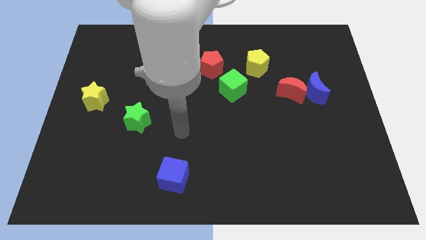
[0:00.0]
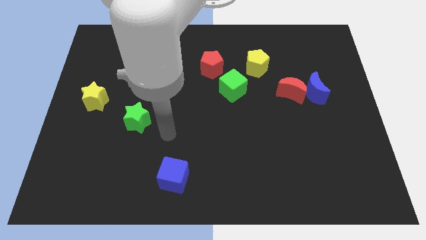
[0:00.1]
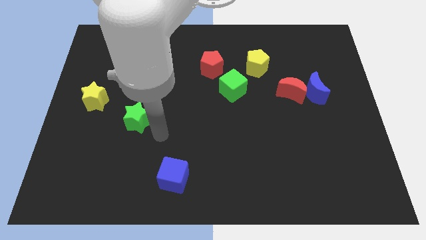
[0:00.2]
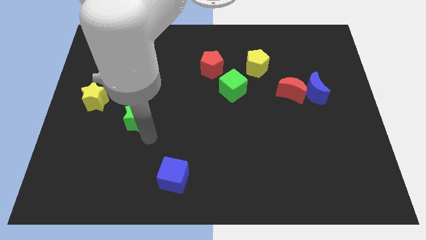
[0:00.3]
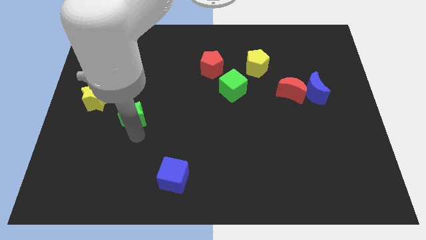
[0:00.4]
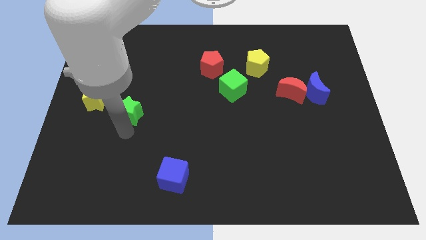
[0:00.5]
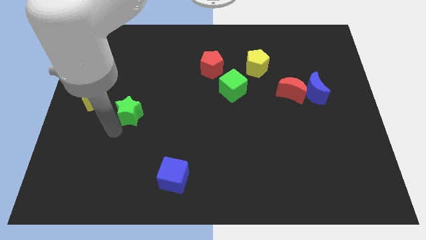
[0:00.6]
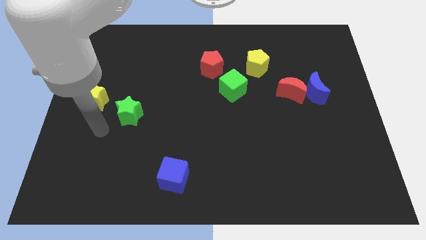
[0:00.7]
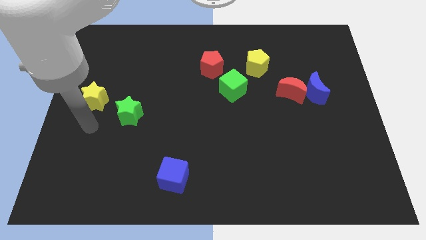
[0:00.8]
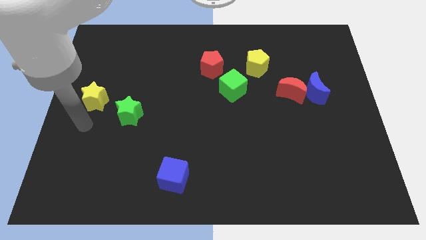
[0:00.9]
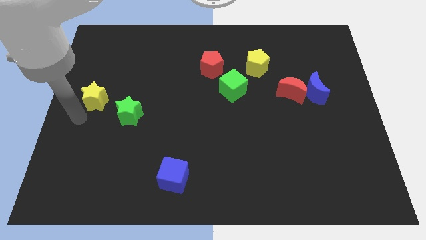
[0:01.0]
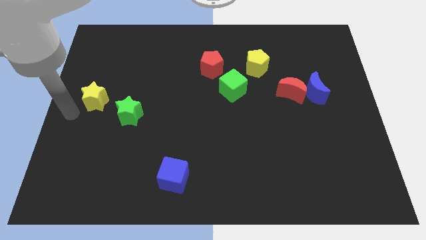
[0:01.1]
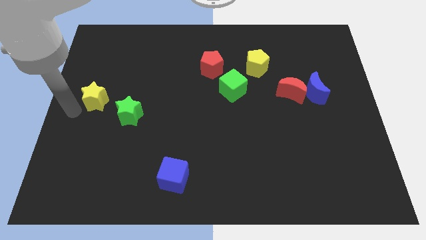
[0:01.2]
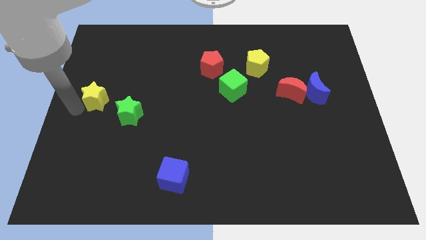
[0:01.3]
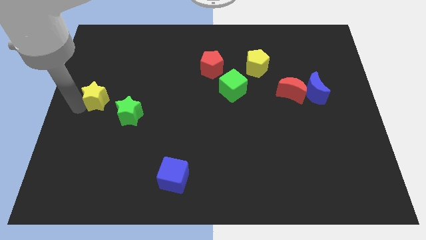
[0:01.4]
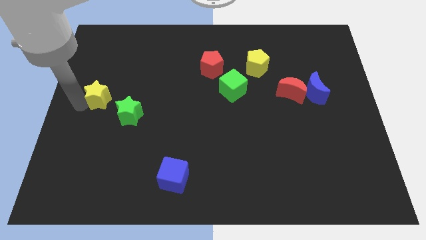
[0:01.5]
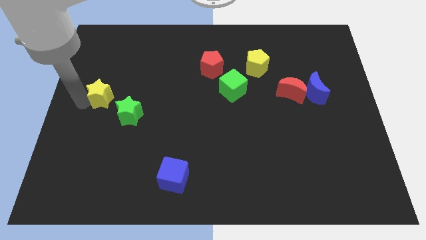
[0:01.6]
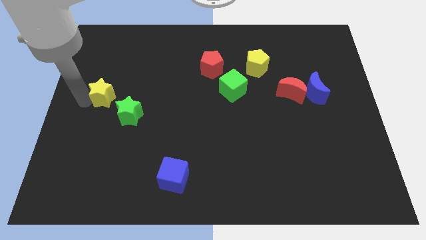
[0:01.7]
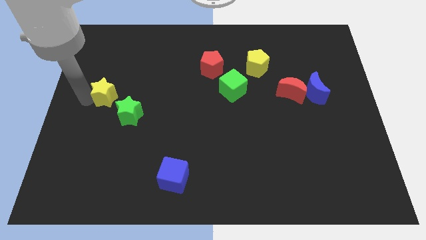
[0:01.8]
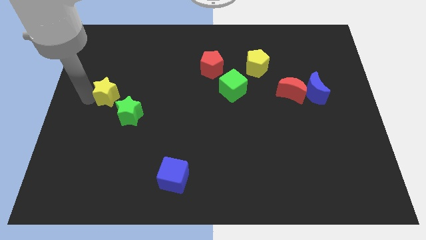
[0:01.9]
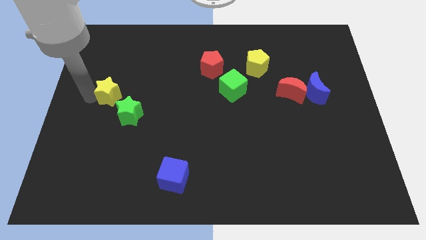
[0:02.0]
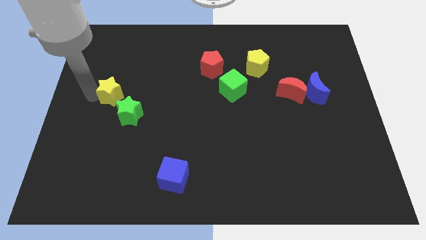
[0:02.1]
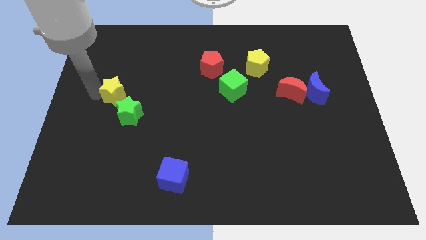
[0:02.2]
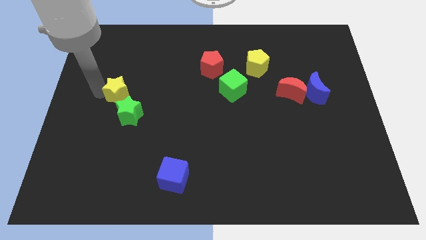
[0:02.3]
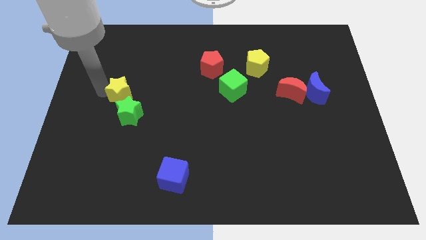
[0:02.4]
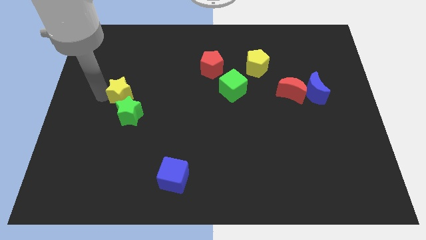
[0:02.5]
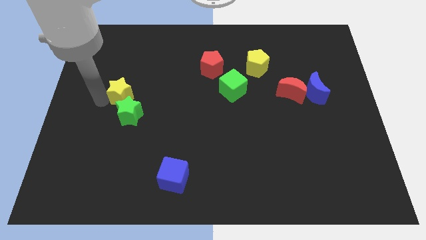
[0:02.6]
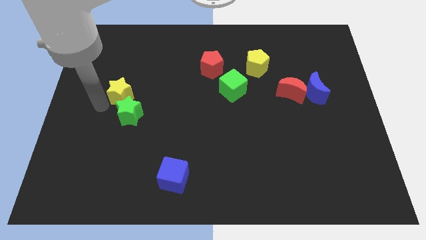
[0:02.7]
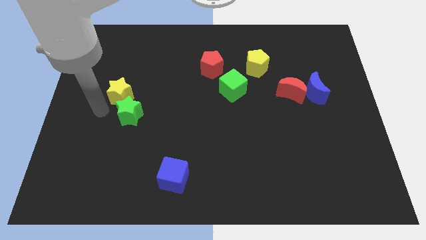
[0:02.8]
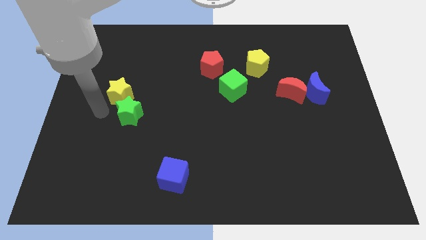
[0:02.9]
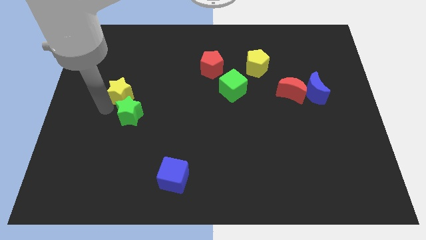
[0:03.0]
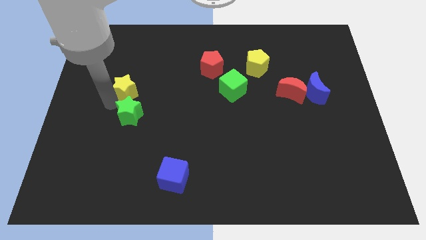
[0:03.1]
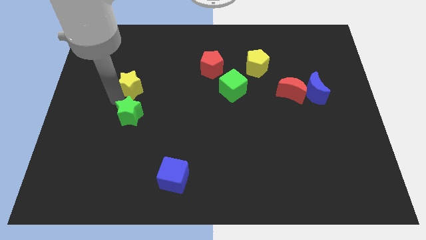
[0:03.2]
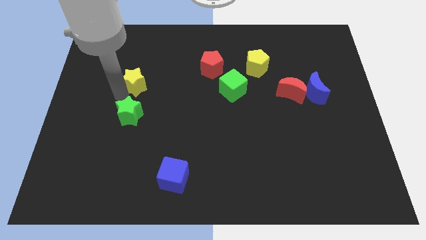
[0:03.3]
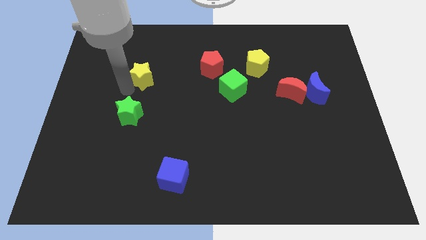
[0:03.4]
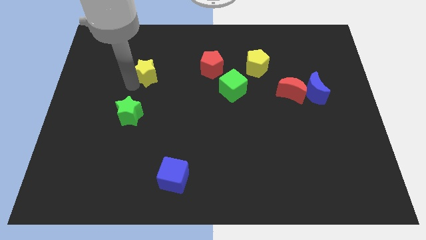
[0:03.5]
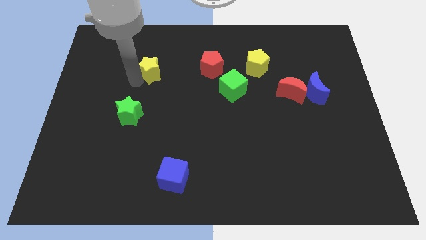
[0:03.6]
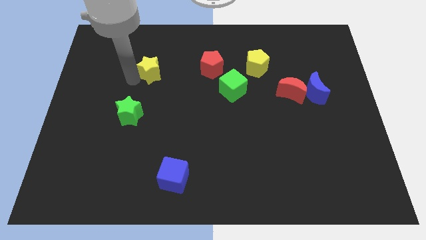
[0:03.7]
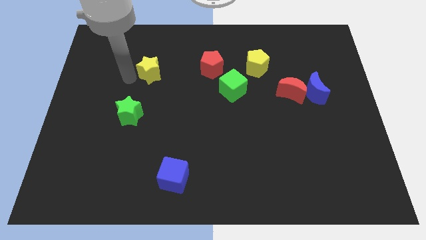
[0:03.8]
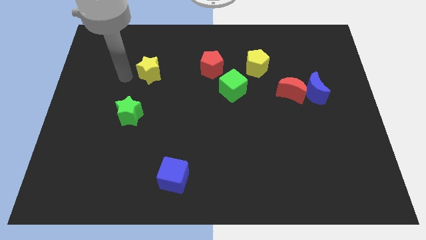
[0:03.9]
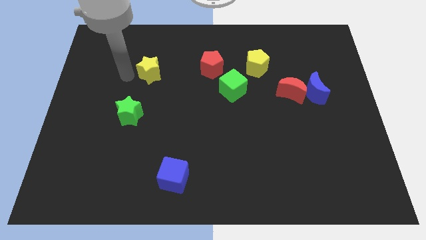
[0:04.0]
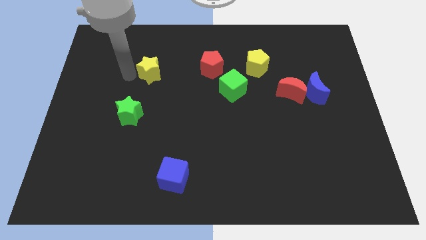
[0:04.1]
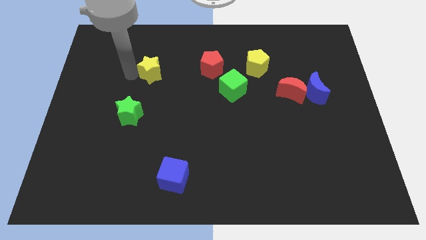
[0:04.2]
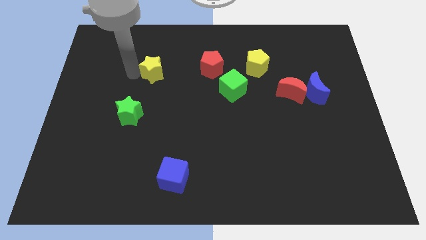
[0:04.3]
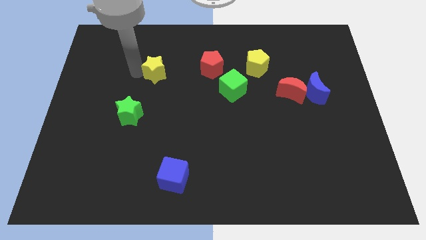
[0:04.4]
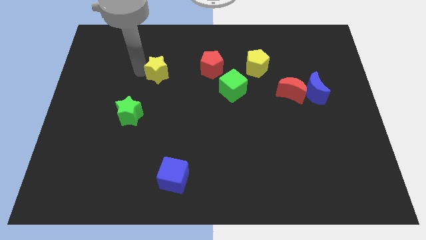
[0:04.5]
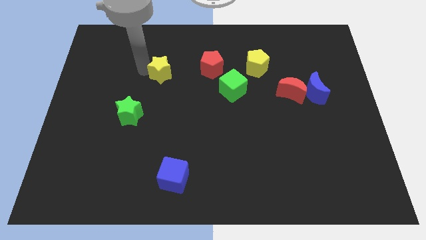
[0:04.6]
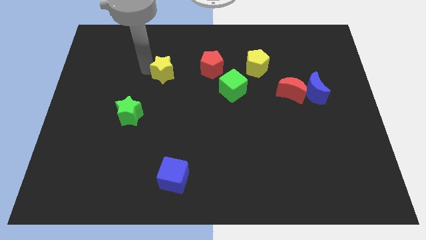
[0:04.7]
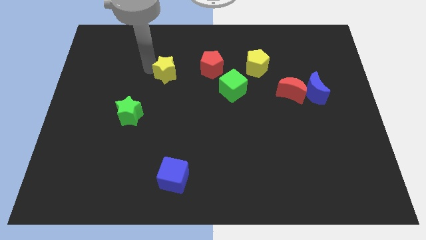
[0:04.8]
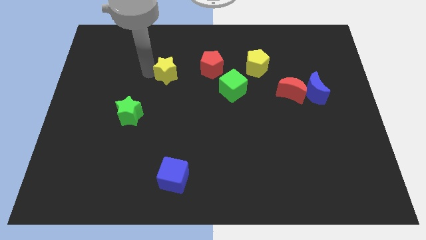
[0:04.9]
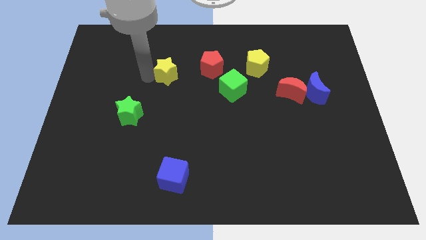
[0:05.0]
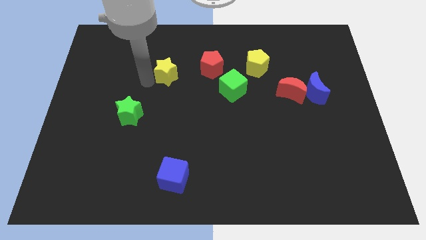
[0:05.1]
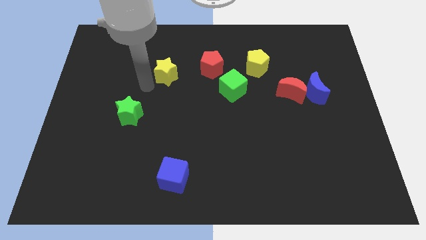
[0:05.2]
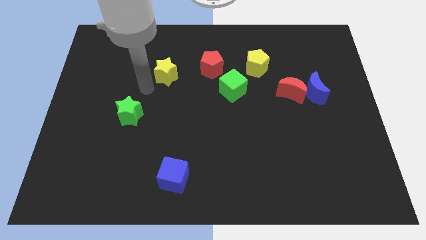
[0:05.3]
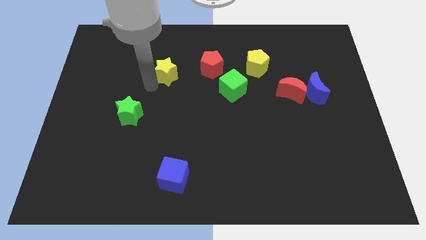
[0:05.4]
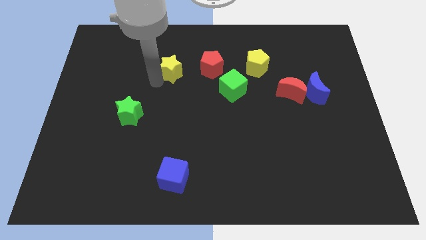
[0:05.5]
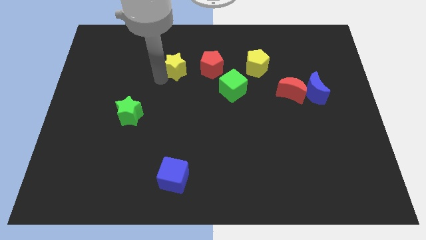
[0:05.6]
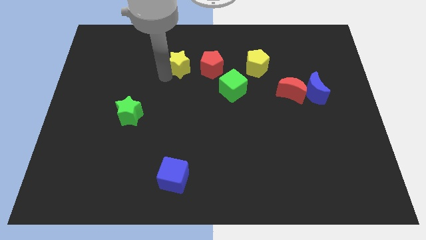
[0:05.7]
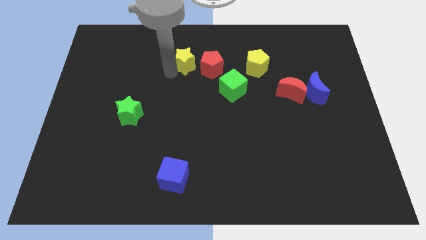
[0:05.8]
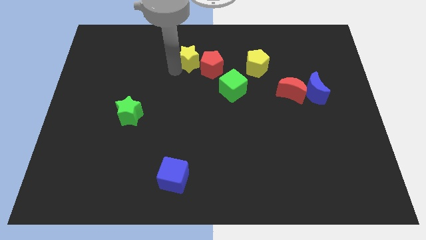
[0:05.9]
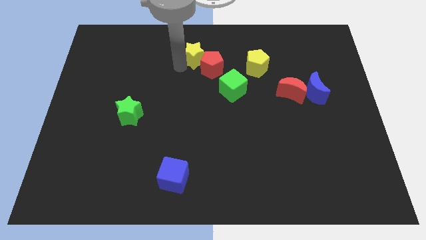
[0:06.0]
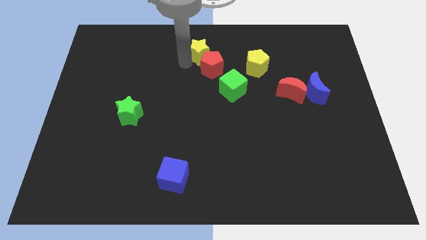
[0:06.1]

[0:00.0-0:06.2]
slide the yellow star to the top
